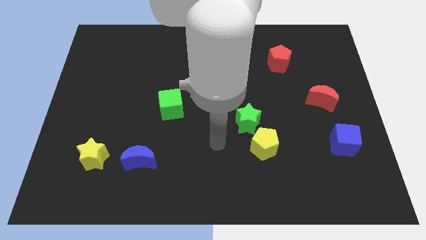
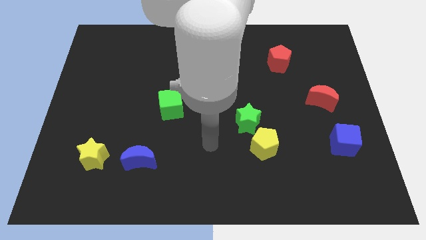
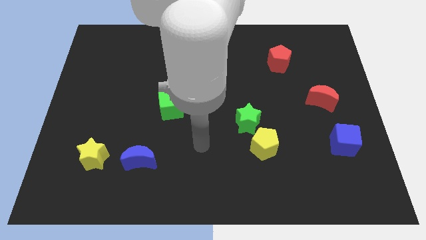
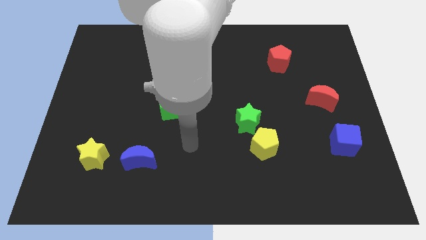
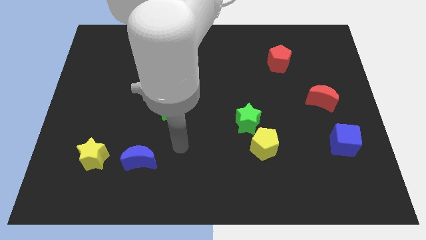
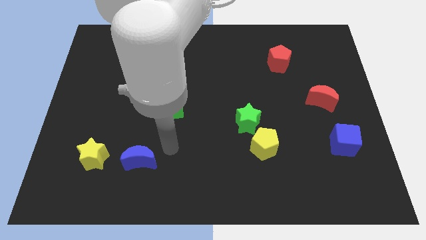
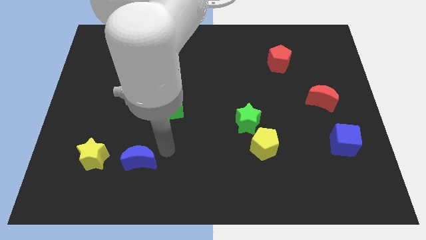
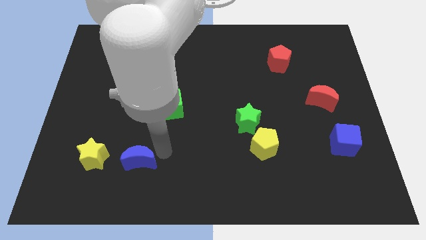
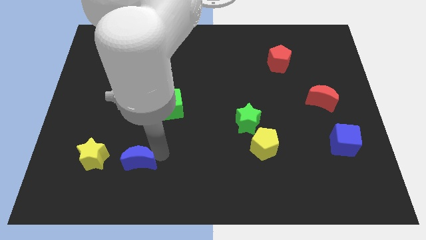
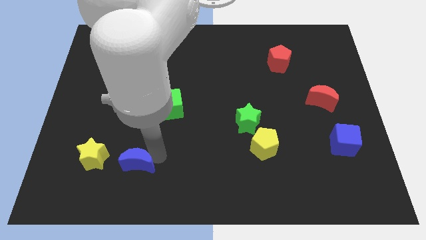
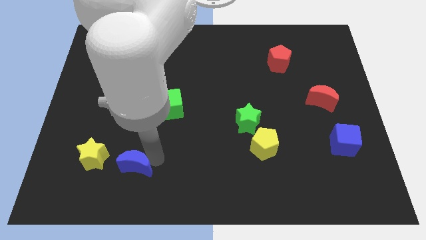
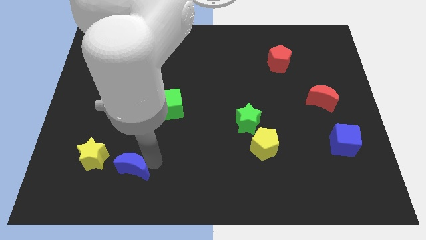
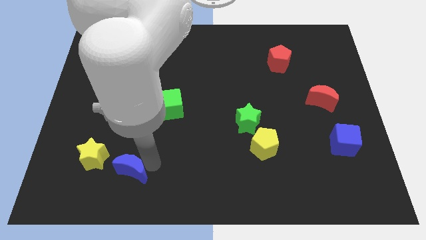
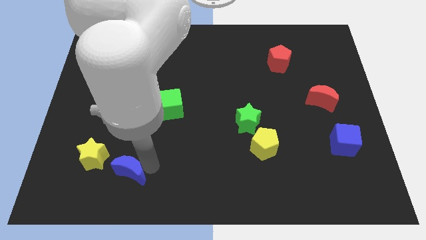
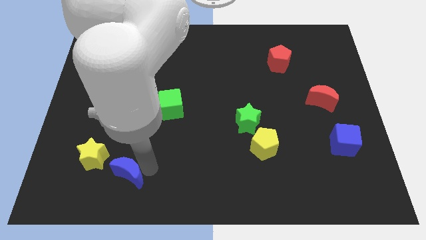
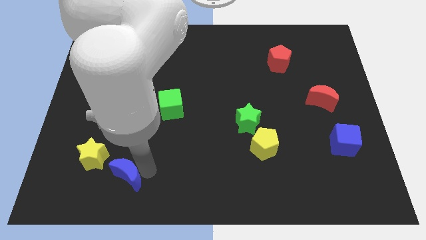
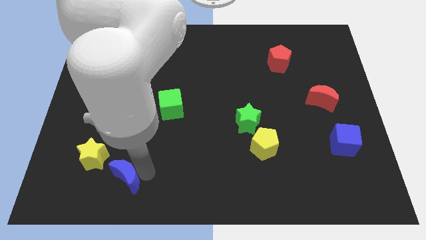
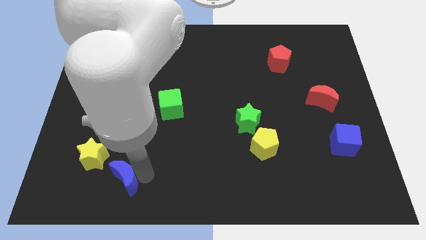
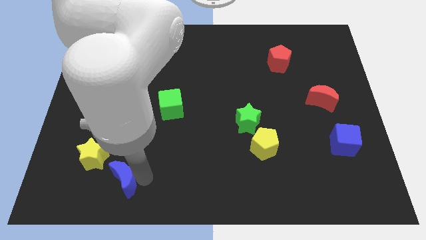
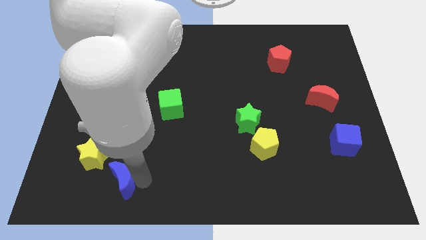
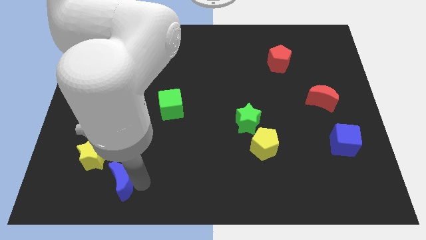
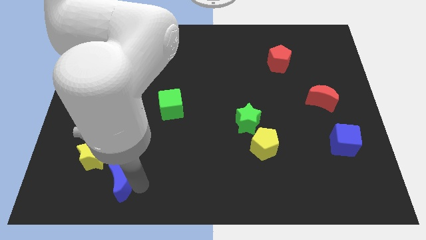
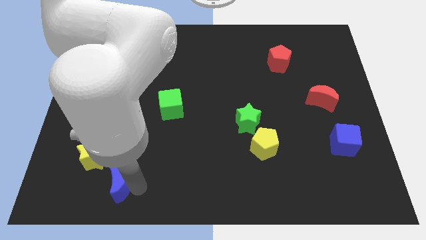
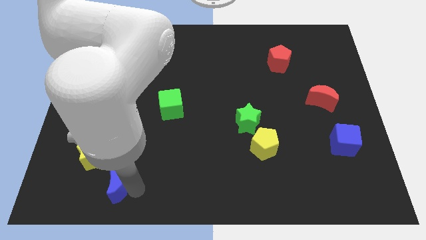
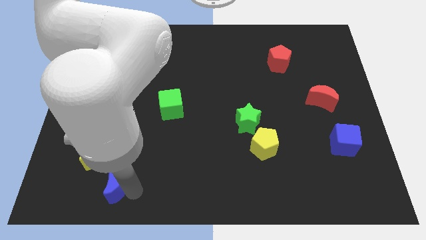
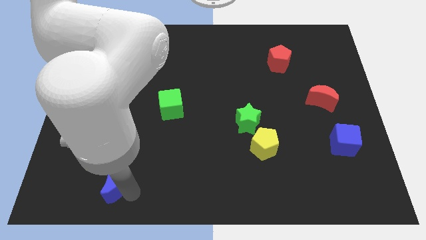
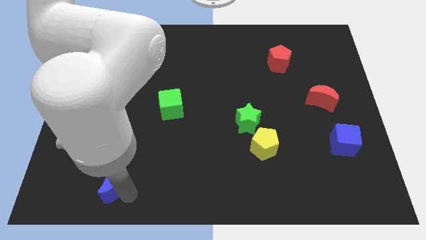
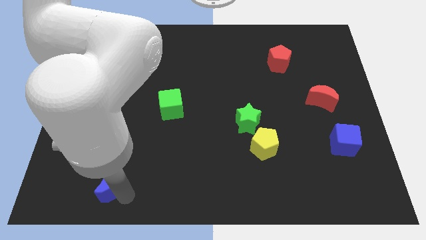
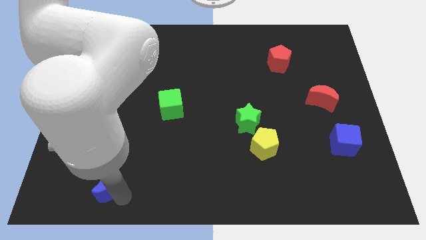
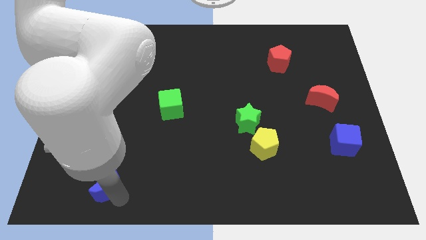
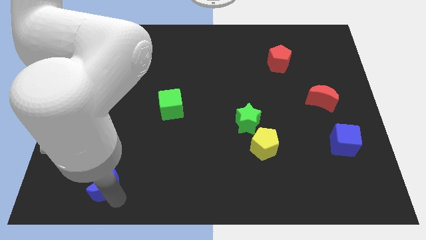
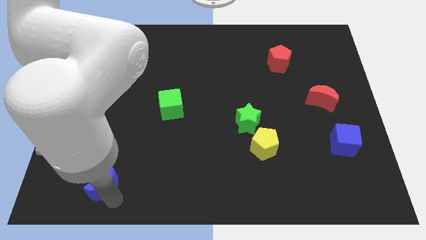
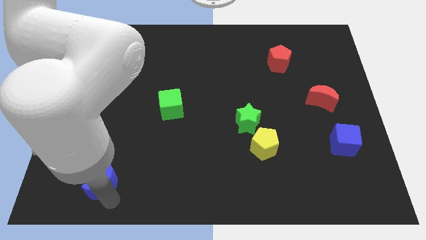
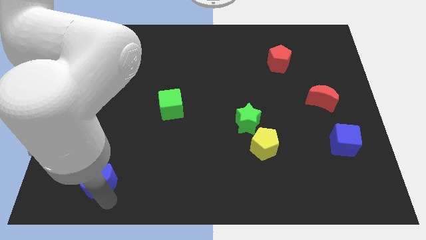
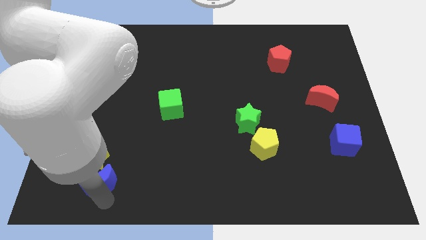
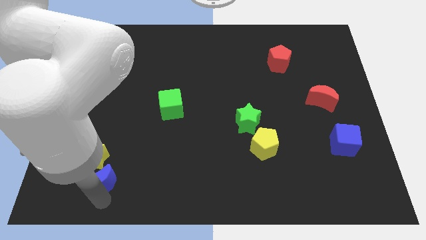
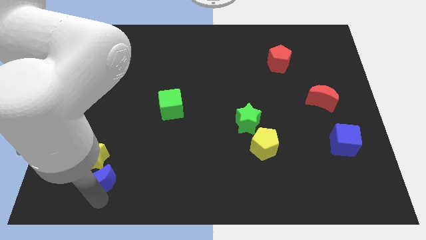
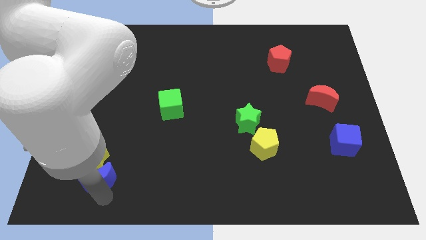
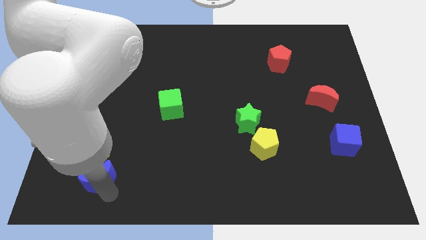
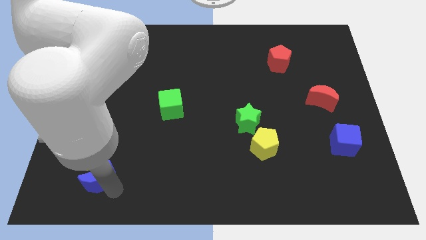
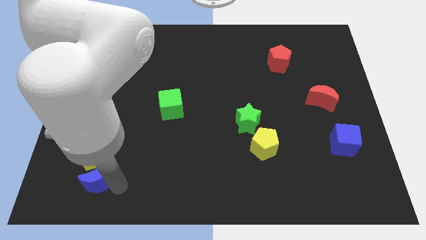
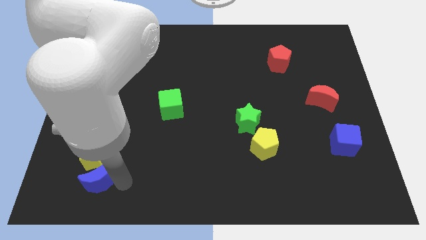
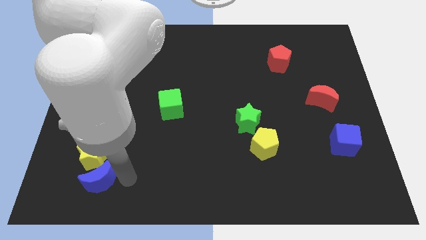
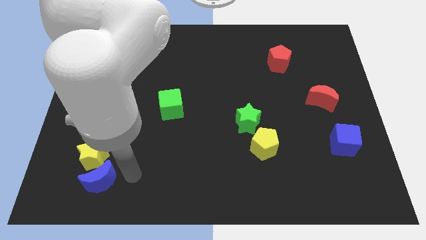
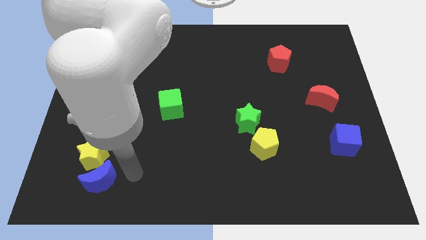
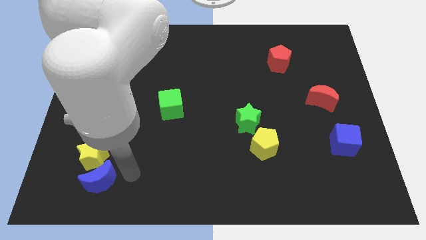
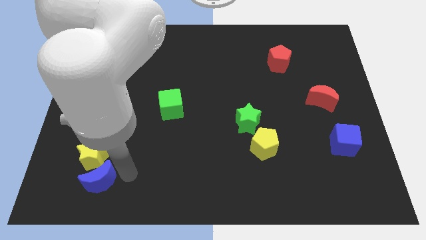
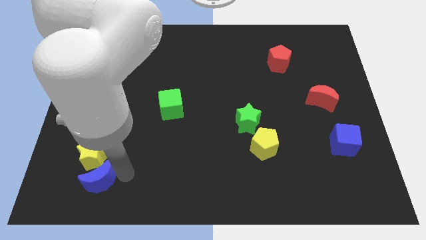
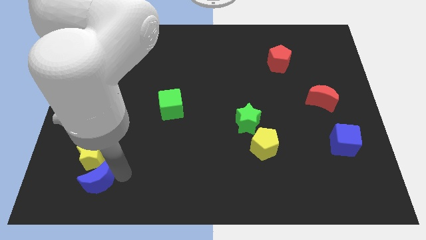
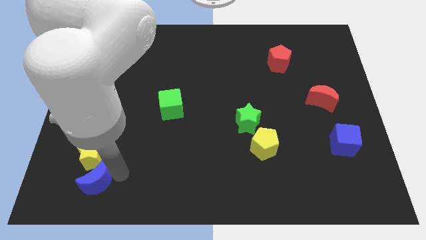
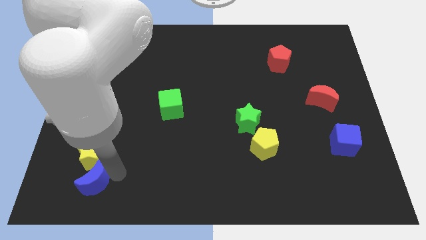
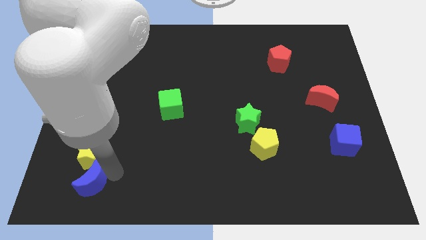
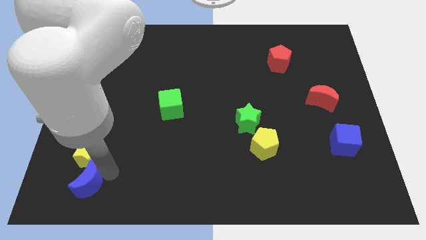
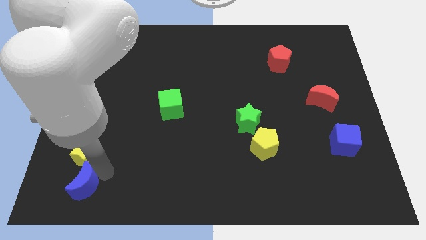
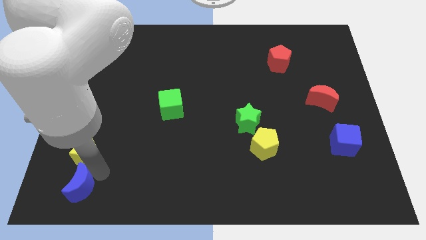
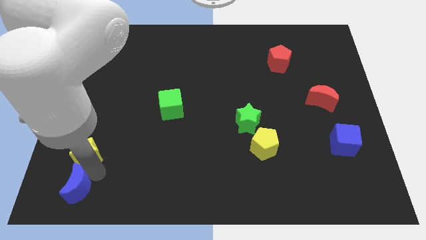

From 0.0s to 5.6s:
move the blue moon to the bottom left corner
